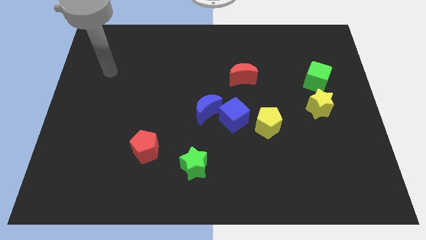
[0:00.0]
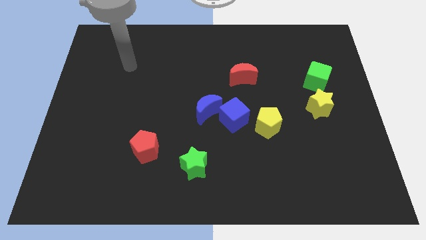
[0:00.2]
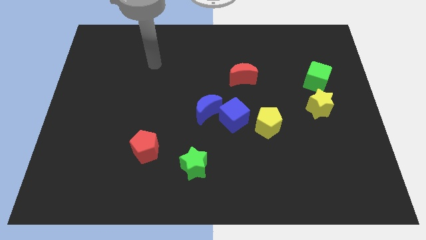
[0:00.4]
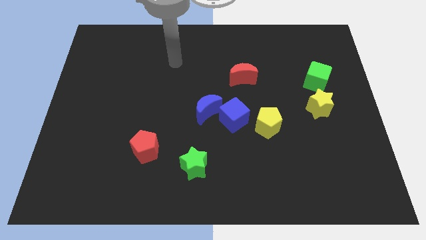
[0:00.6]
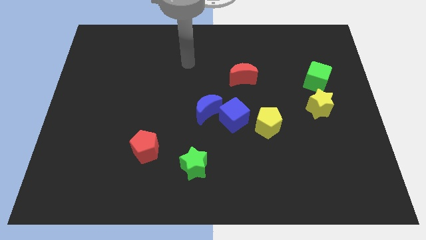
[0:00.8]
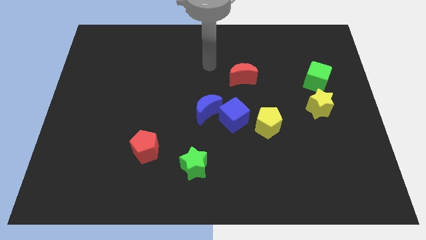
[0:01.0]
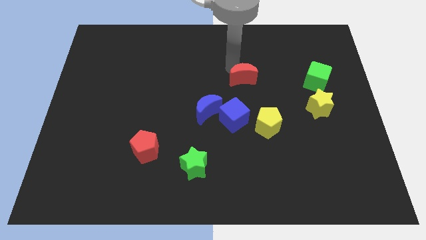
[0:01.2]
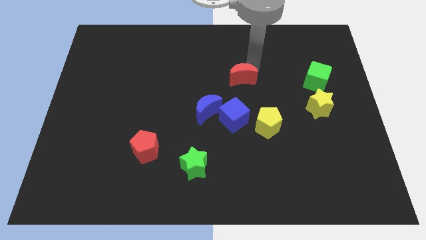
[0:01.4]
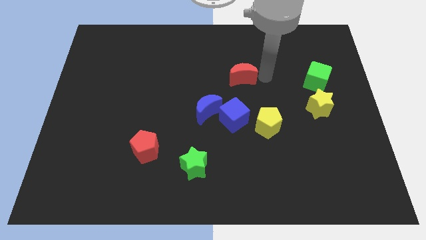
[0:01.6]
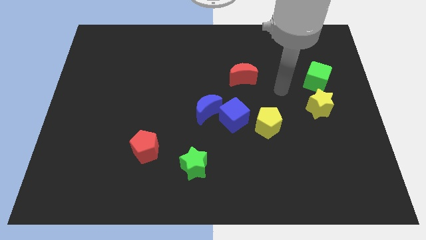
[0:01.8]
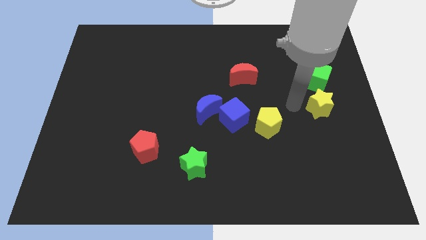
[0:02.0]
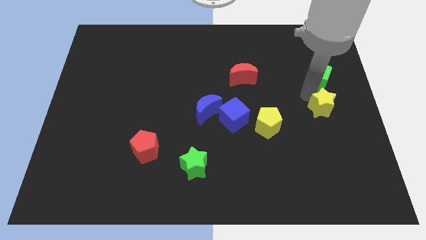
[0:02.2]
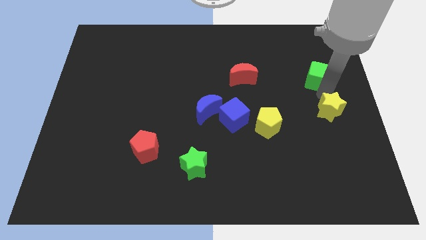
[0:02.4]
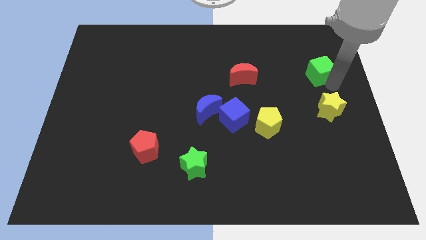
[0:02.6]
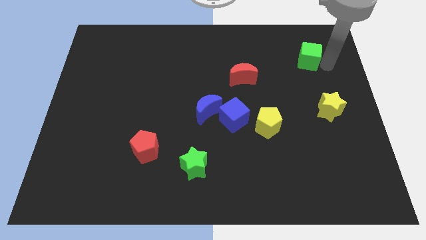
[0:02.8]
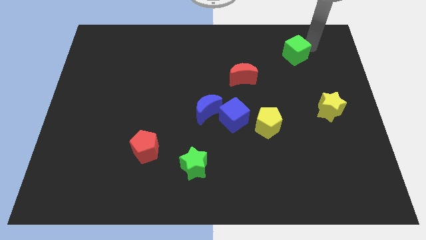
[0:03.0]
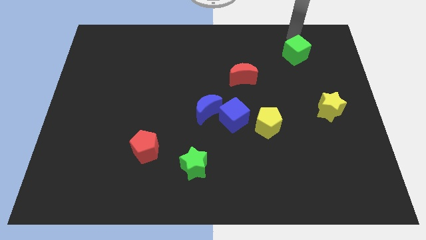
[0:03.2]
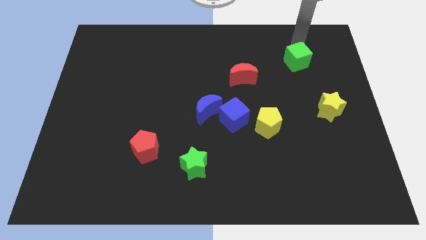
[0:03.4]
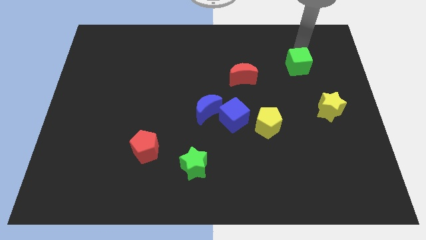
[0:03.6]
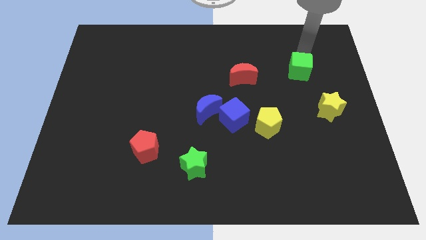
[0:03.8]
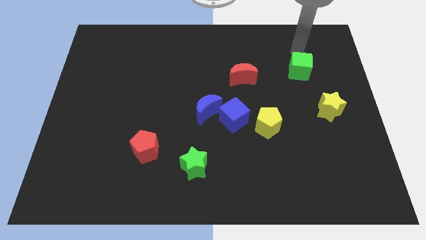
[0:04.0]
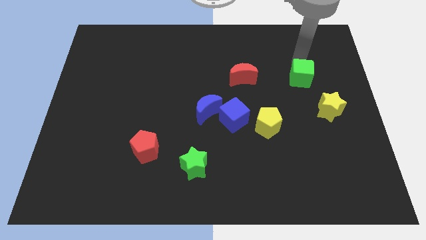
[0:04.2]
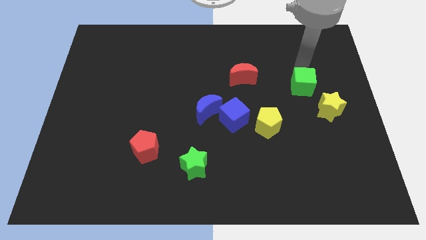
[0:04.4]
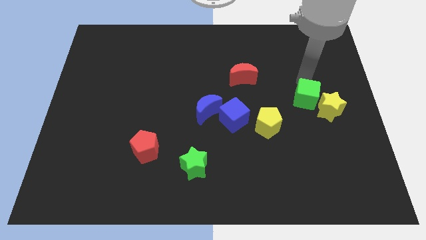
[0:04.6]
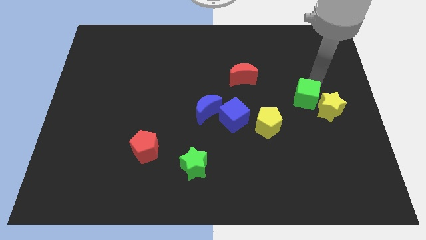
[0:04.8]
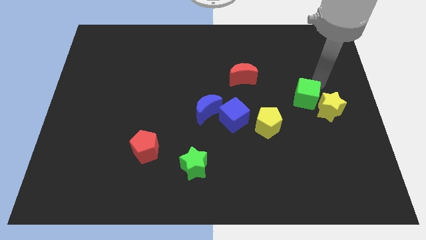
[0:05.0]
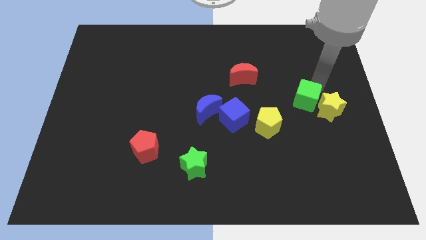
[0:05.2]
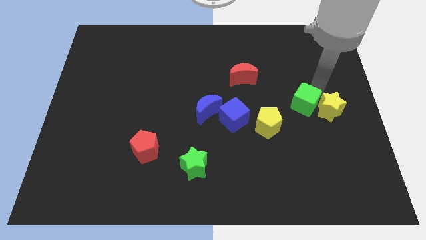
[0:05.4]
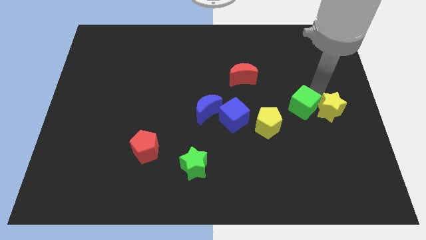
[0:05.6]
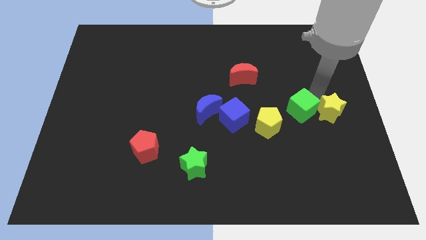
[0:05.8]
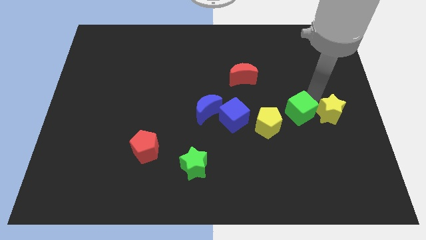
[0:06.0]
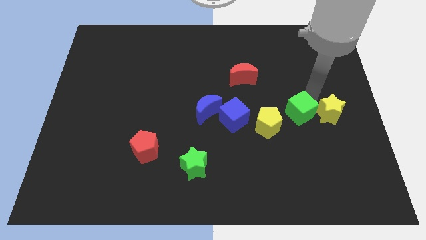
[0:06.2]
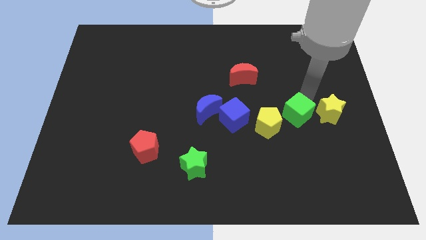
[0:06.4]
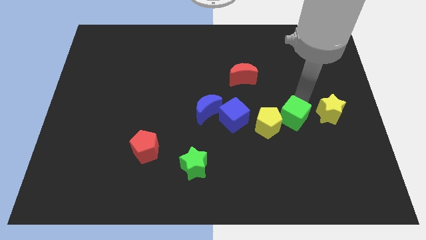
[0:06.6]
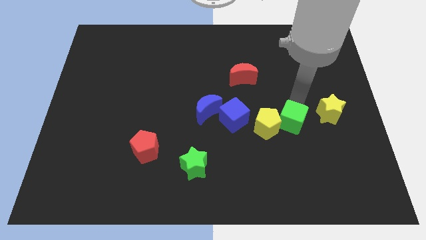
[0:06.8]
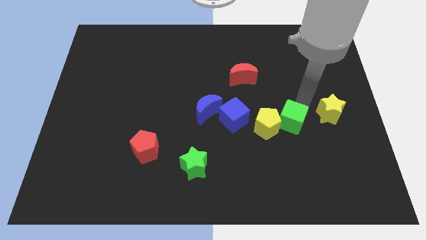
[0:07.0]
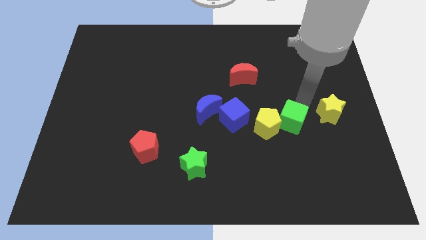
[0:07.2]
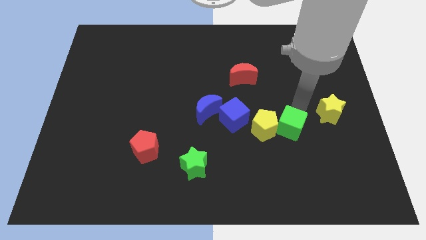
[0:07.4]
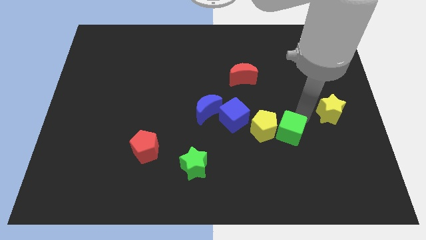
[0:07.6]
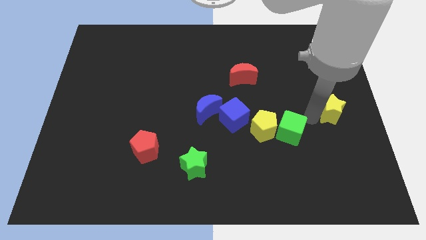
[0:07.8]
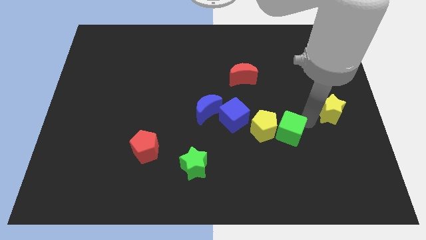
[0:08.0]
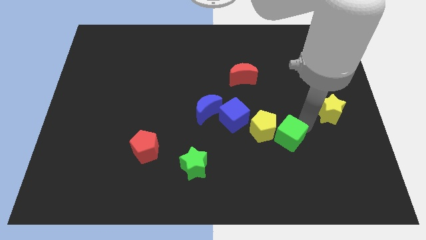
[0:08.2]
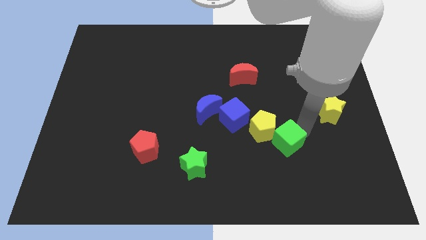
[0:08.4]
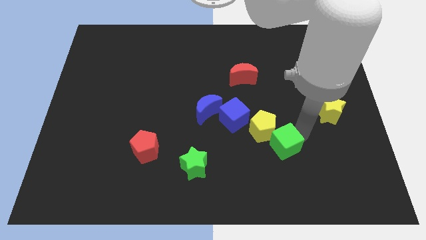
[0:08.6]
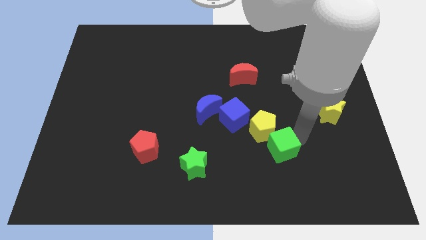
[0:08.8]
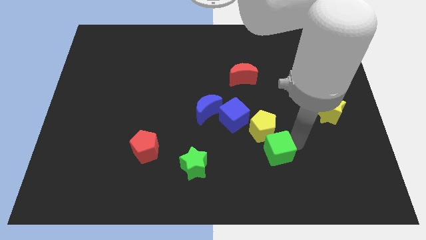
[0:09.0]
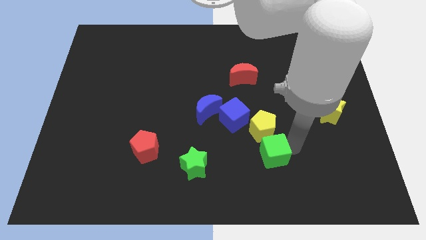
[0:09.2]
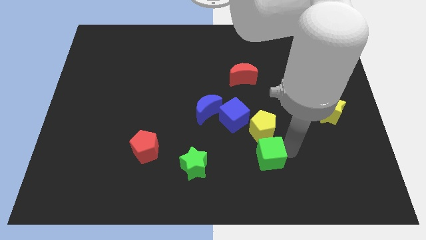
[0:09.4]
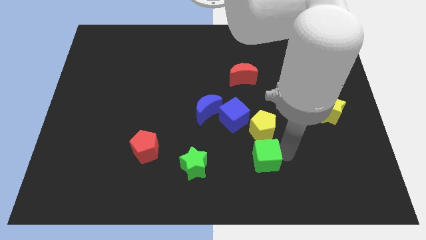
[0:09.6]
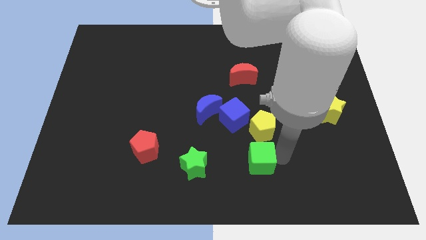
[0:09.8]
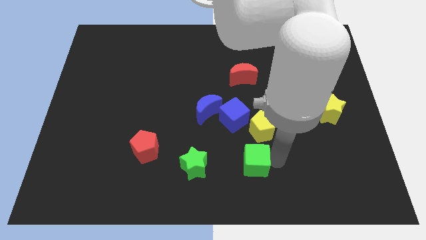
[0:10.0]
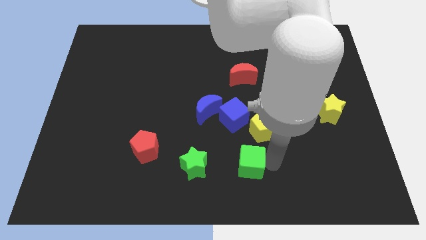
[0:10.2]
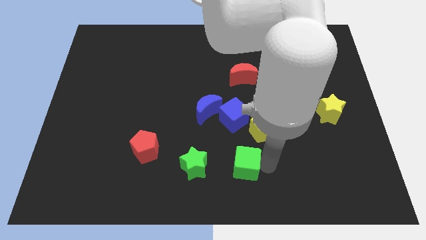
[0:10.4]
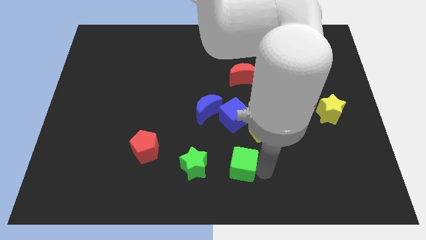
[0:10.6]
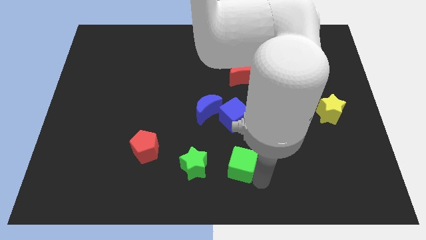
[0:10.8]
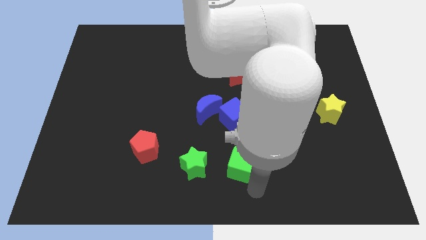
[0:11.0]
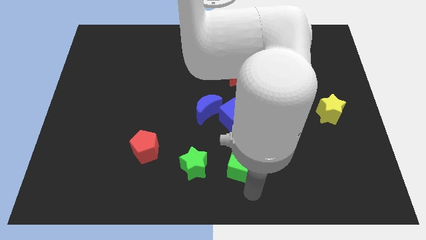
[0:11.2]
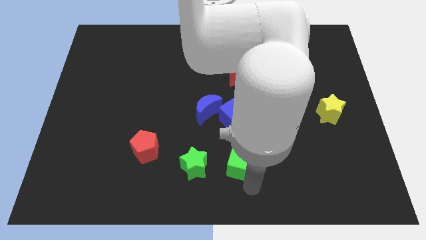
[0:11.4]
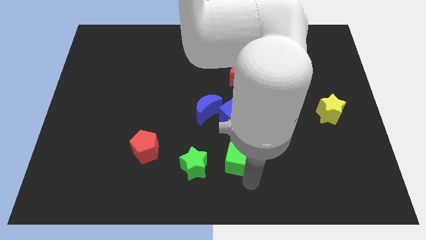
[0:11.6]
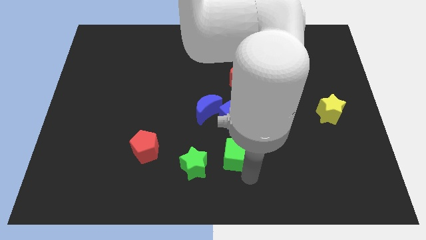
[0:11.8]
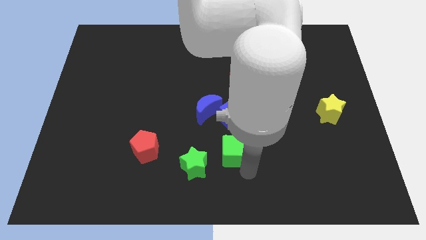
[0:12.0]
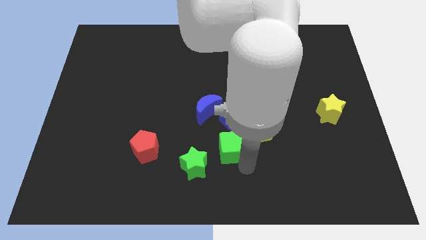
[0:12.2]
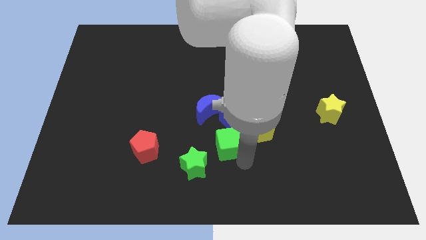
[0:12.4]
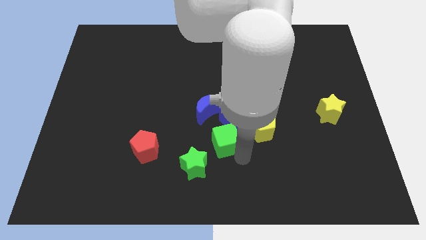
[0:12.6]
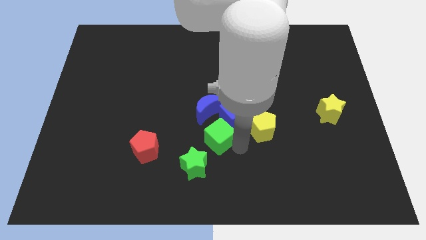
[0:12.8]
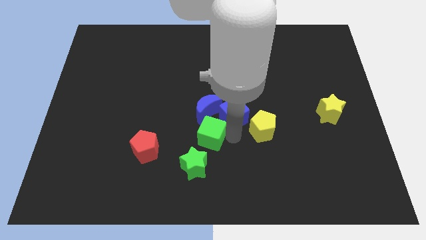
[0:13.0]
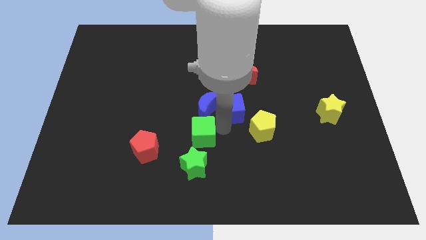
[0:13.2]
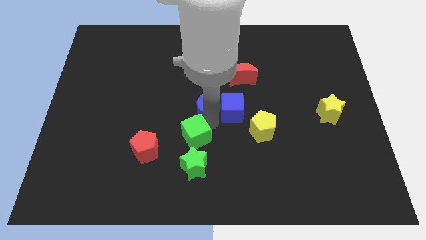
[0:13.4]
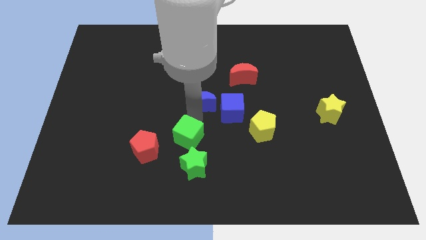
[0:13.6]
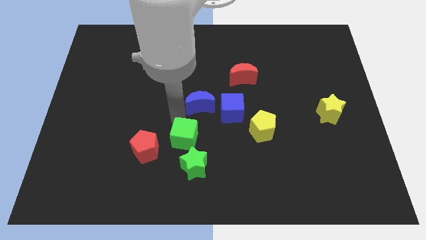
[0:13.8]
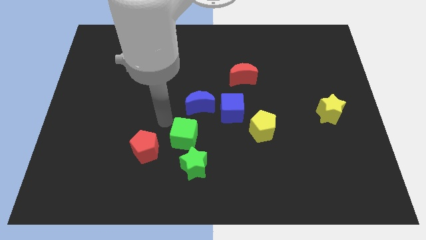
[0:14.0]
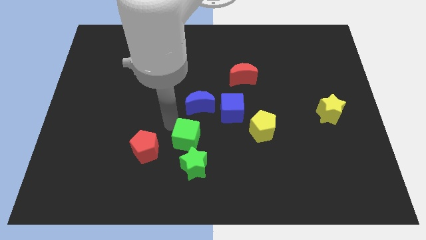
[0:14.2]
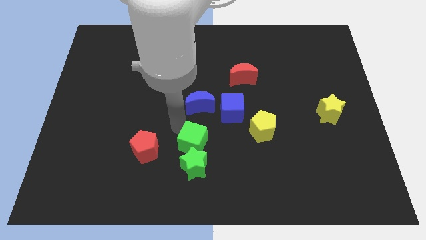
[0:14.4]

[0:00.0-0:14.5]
push the green cube towards the green star
